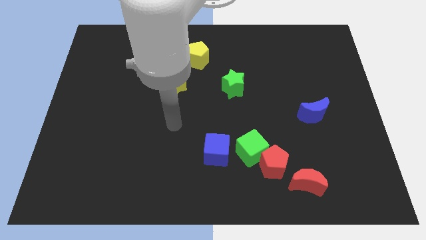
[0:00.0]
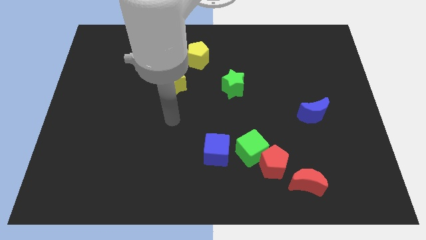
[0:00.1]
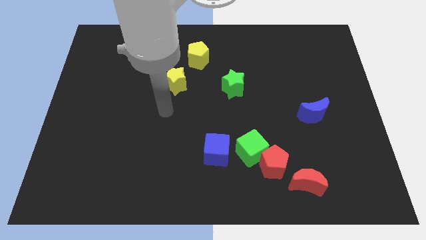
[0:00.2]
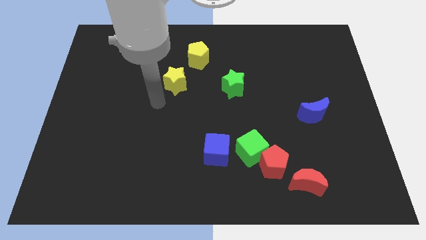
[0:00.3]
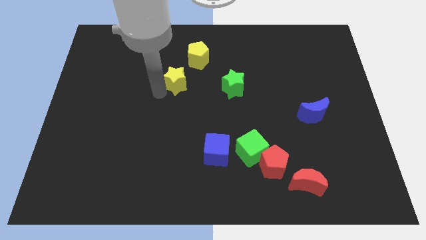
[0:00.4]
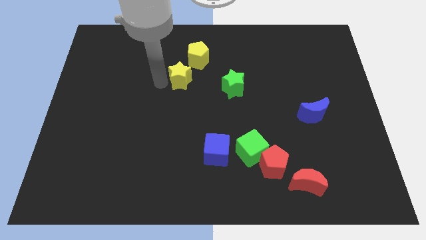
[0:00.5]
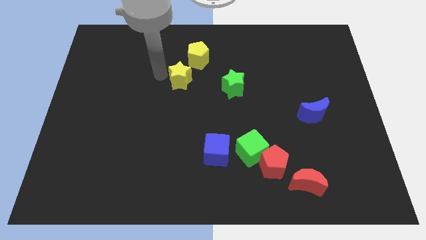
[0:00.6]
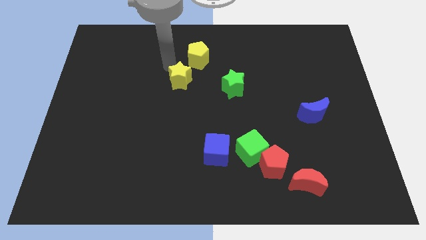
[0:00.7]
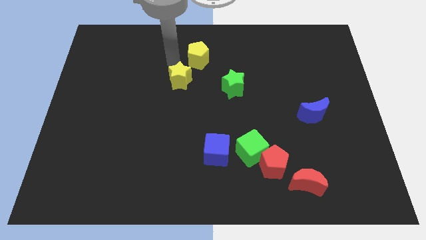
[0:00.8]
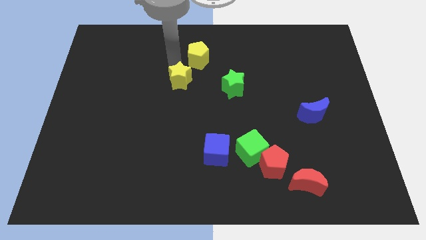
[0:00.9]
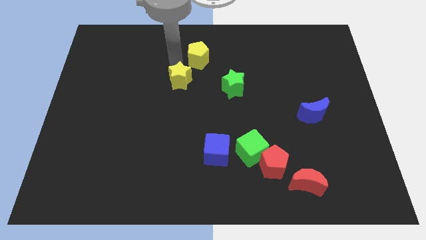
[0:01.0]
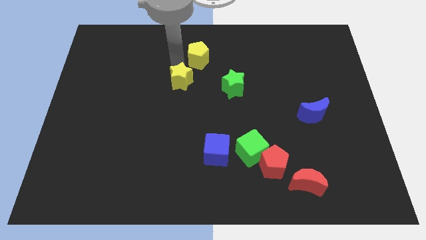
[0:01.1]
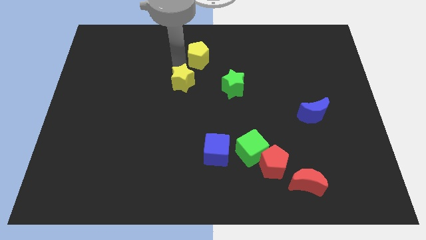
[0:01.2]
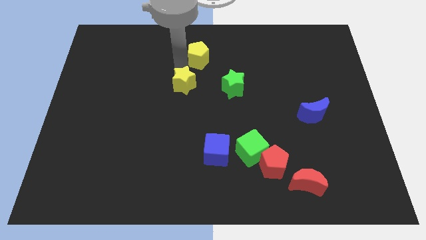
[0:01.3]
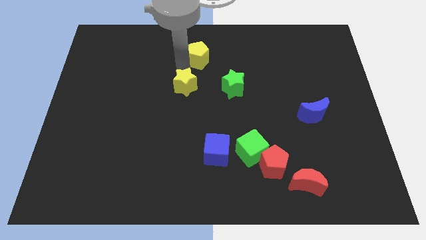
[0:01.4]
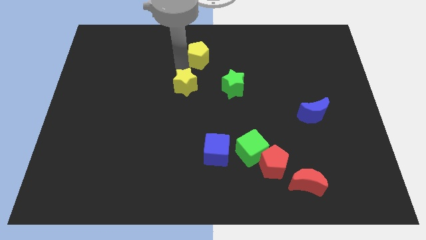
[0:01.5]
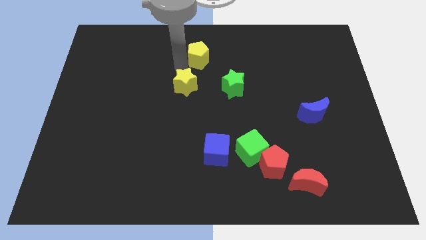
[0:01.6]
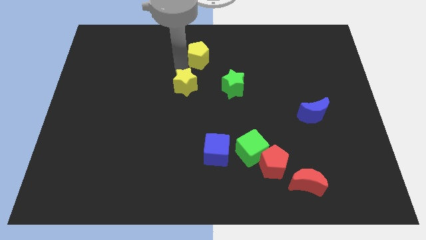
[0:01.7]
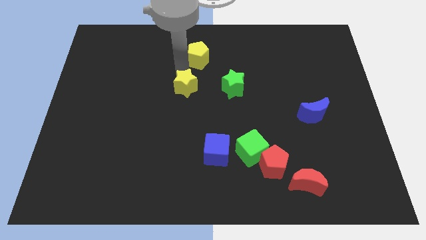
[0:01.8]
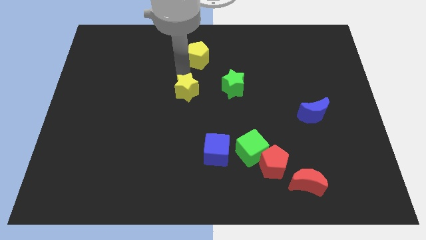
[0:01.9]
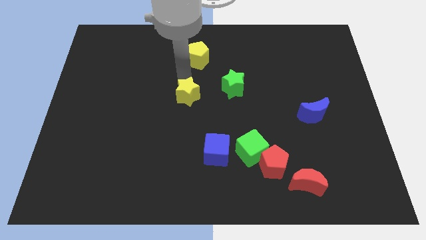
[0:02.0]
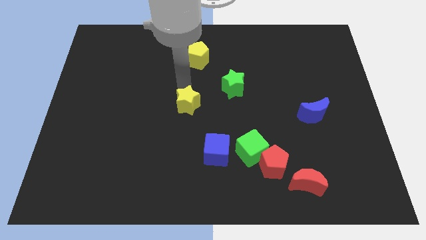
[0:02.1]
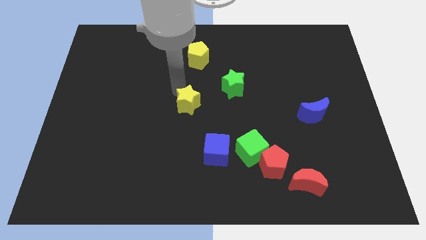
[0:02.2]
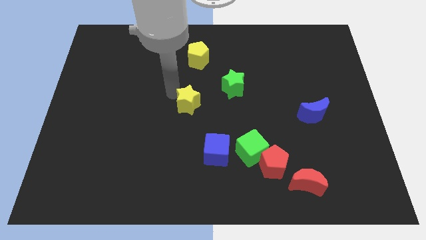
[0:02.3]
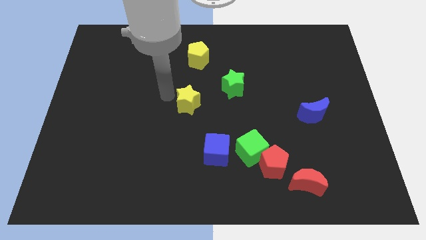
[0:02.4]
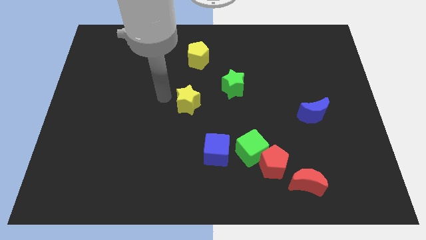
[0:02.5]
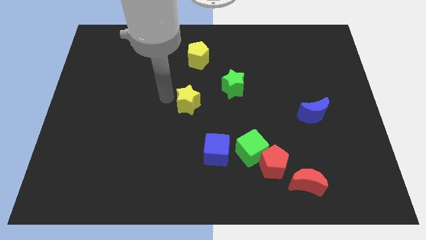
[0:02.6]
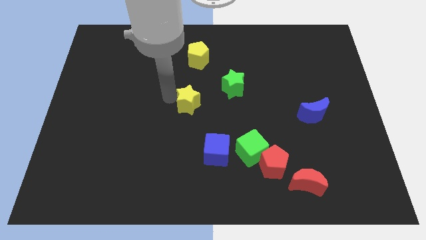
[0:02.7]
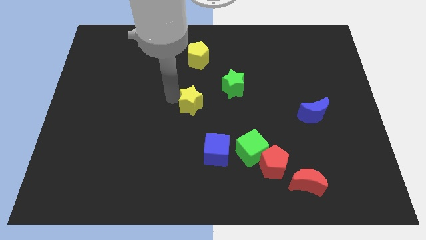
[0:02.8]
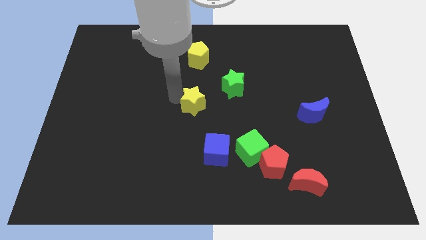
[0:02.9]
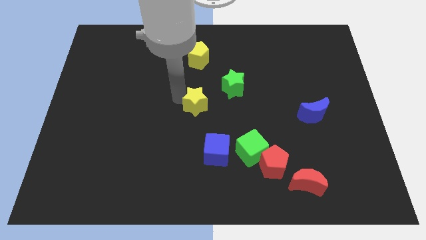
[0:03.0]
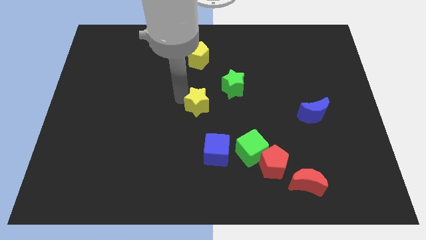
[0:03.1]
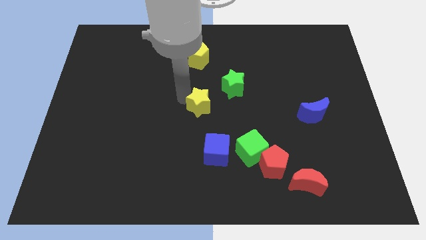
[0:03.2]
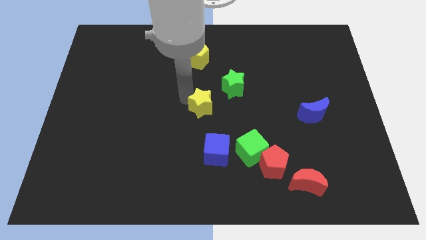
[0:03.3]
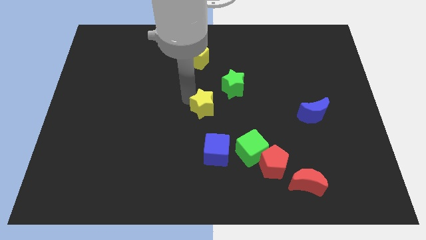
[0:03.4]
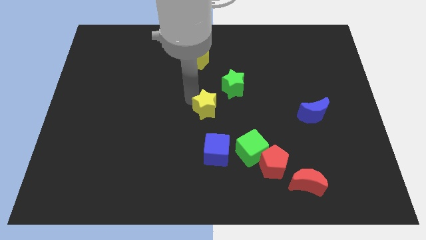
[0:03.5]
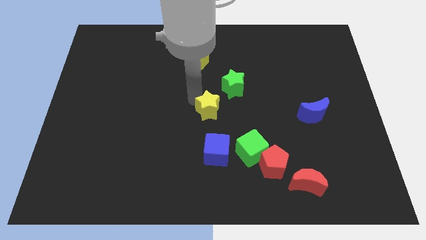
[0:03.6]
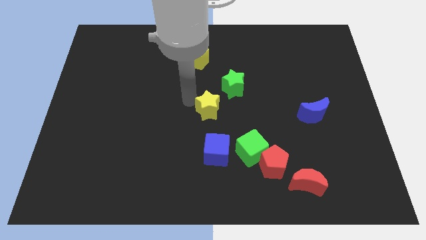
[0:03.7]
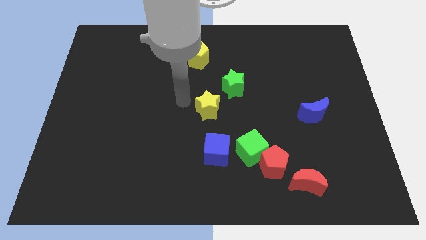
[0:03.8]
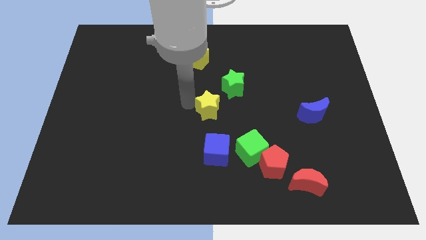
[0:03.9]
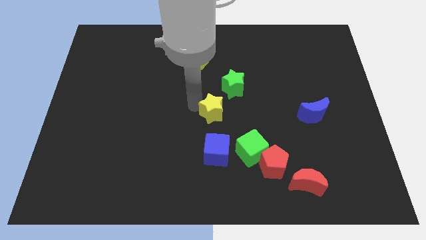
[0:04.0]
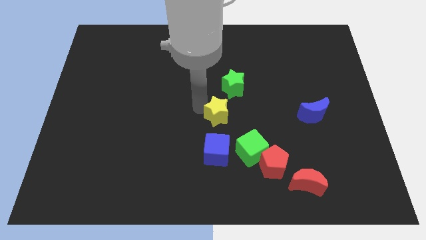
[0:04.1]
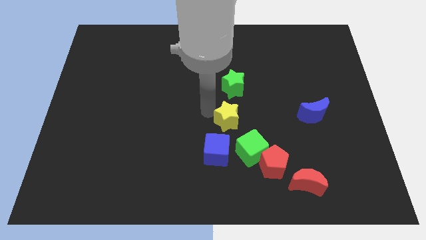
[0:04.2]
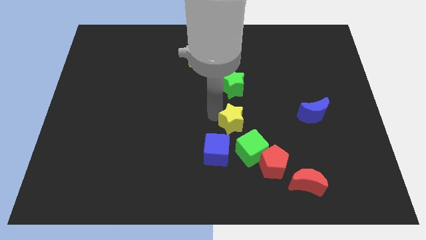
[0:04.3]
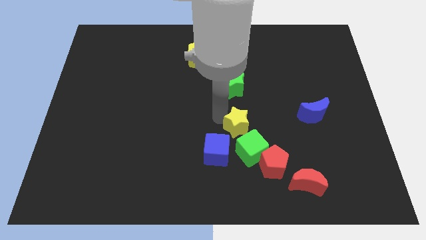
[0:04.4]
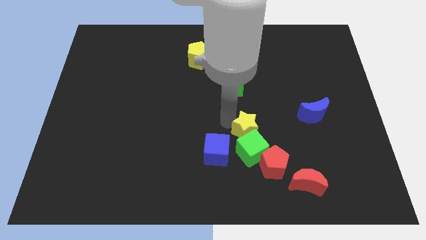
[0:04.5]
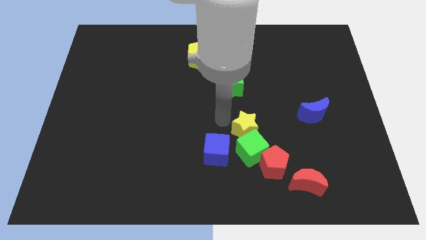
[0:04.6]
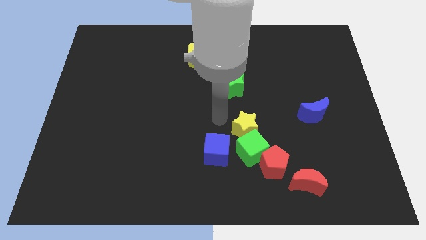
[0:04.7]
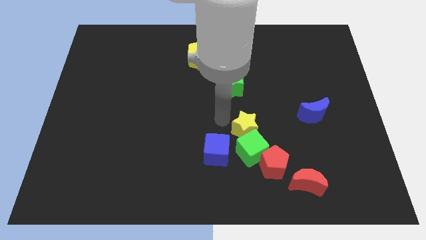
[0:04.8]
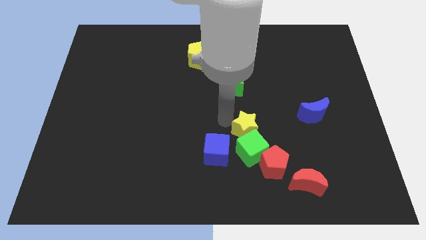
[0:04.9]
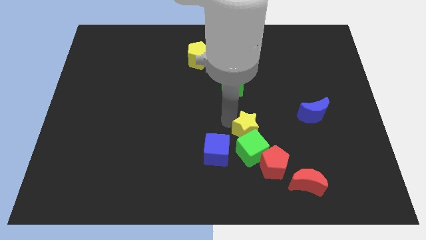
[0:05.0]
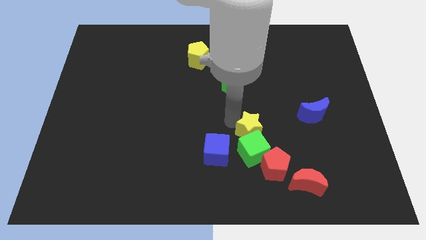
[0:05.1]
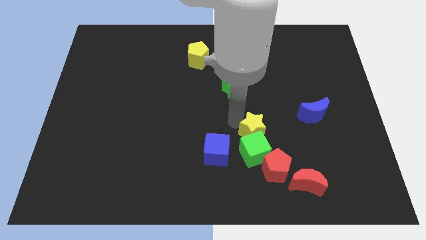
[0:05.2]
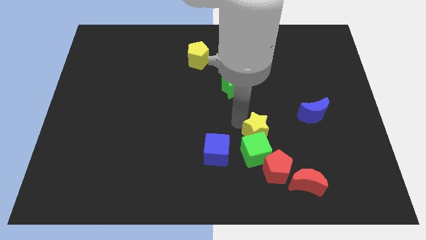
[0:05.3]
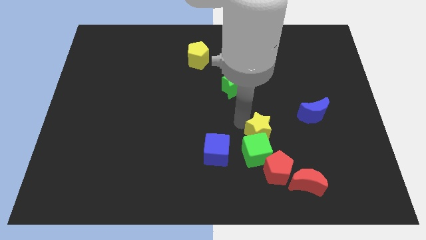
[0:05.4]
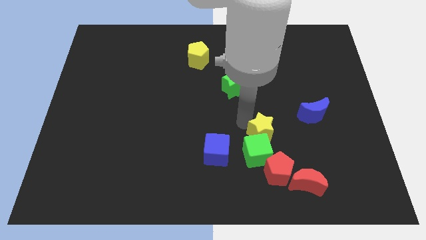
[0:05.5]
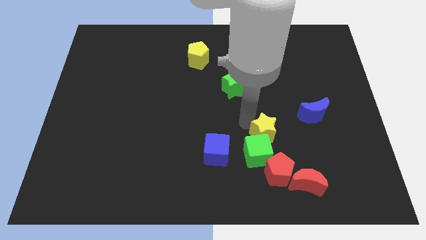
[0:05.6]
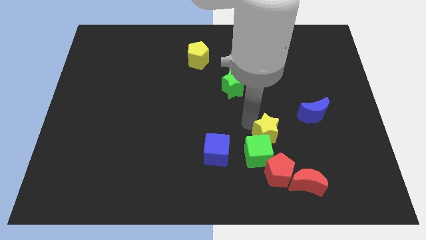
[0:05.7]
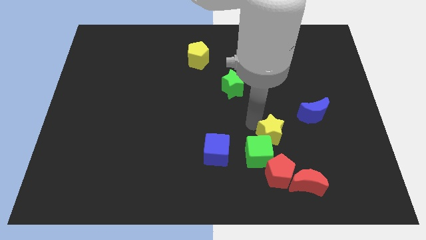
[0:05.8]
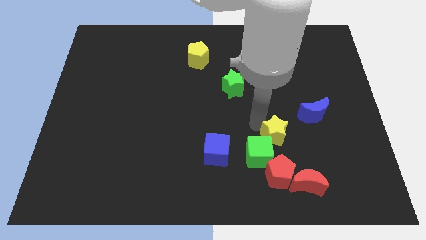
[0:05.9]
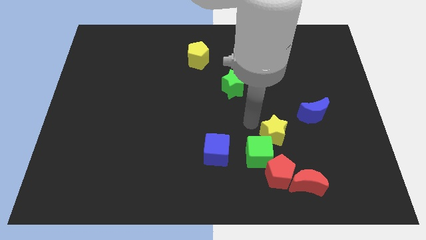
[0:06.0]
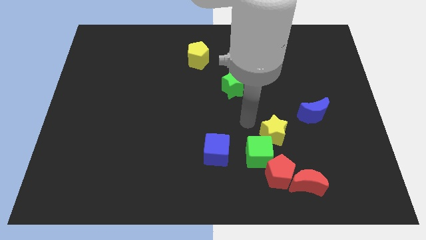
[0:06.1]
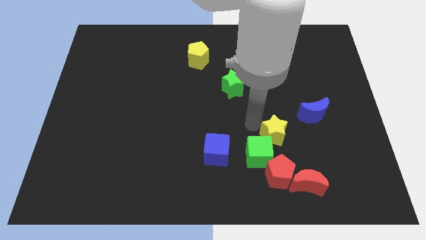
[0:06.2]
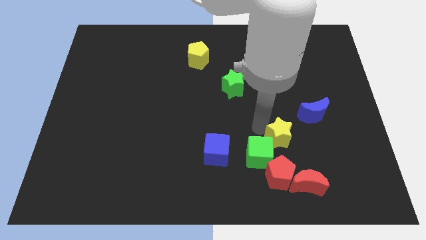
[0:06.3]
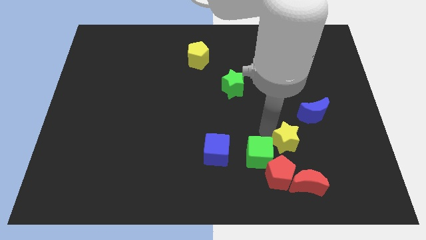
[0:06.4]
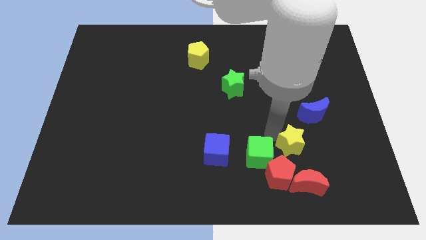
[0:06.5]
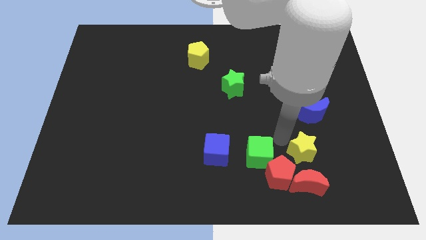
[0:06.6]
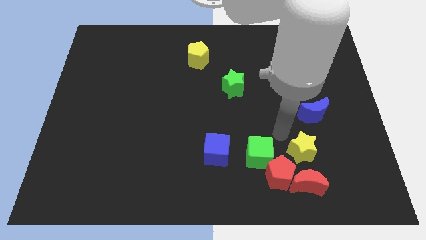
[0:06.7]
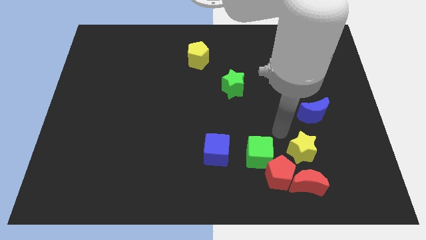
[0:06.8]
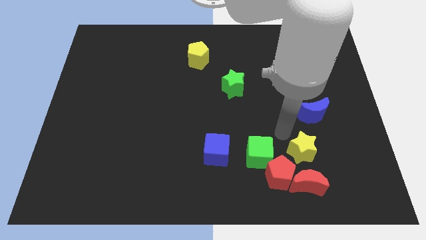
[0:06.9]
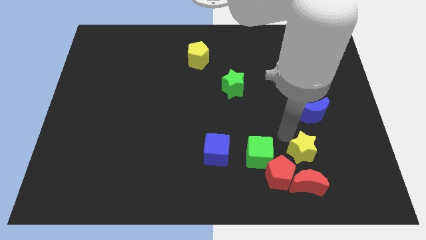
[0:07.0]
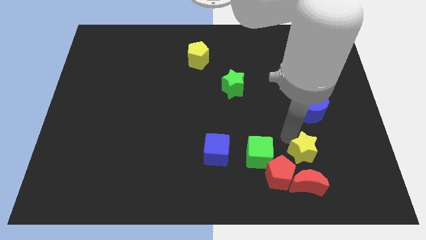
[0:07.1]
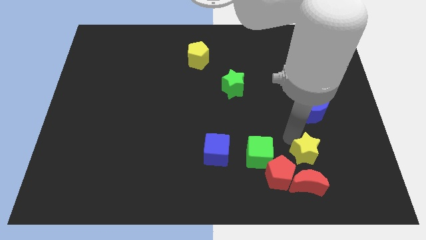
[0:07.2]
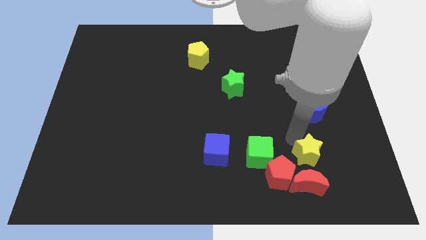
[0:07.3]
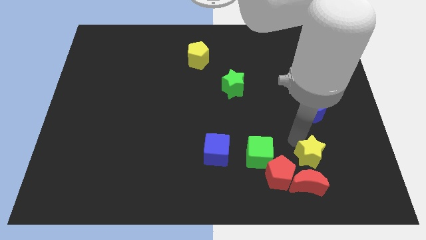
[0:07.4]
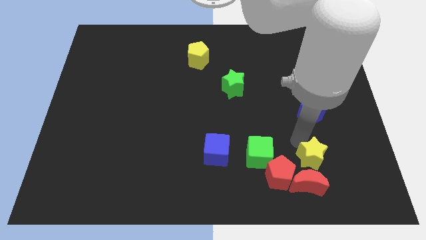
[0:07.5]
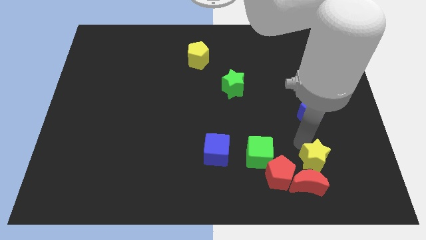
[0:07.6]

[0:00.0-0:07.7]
move the yellow star next to the red moon

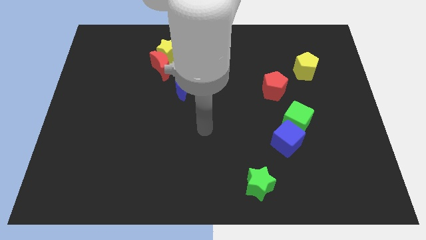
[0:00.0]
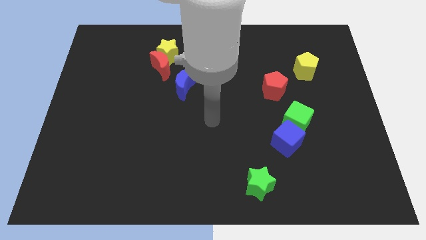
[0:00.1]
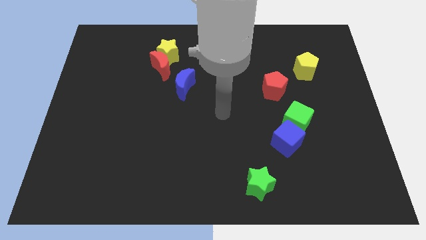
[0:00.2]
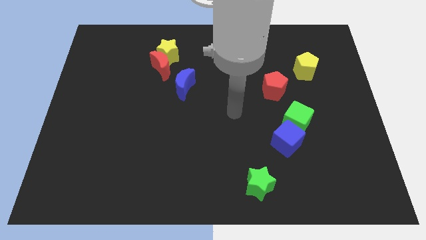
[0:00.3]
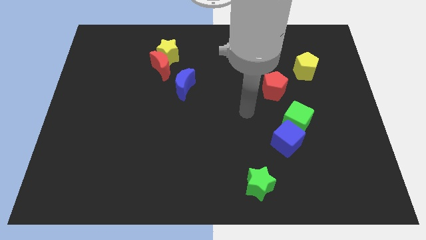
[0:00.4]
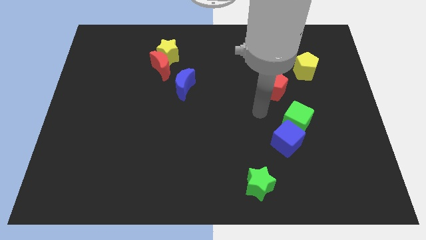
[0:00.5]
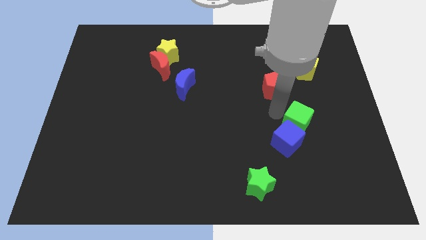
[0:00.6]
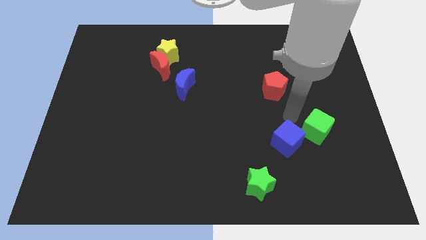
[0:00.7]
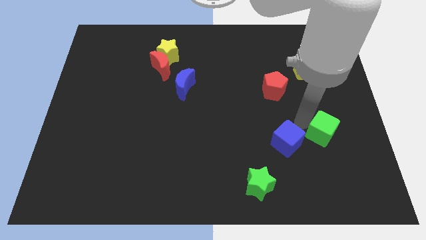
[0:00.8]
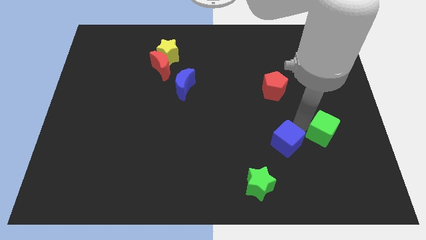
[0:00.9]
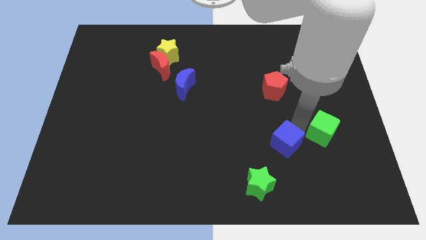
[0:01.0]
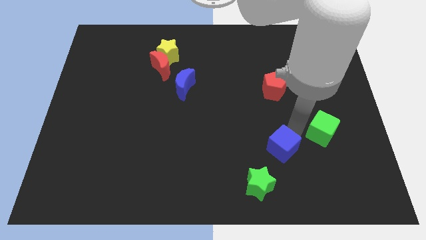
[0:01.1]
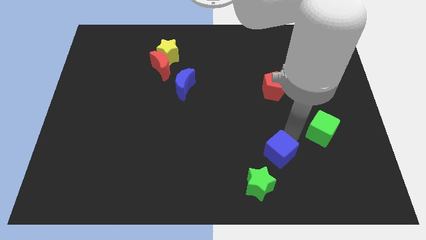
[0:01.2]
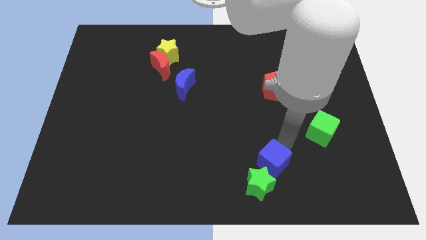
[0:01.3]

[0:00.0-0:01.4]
put the blue cube to the green star
